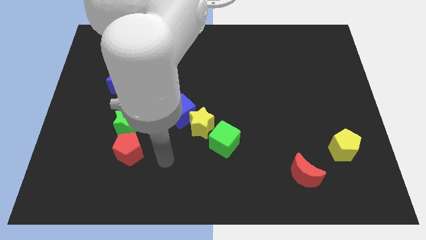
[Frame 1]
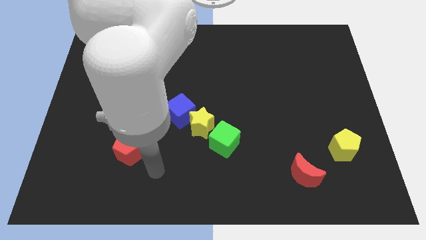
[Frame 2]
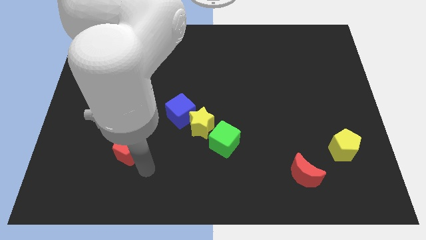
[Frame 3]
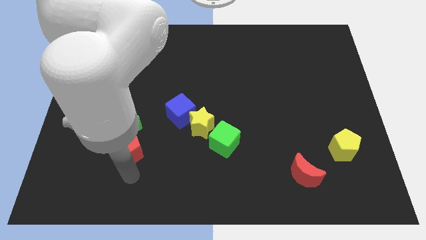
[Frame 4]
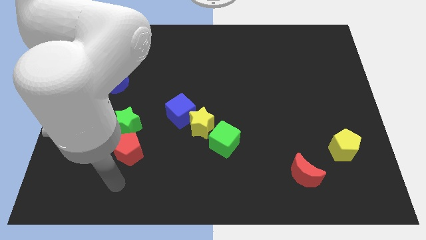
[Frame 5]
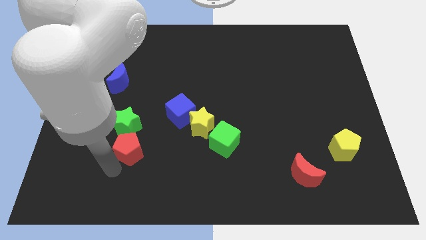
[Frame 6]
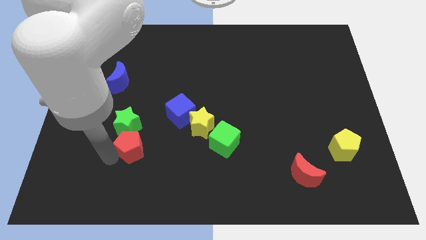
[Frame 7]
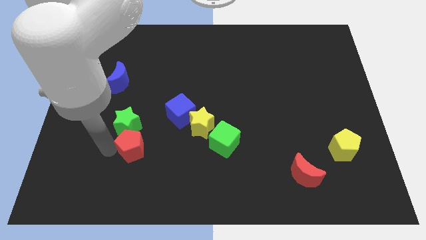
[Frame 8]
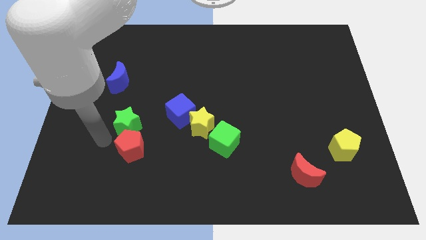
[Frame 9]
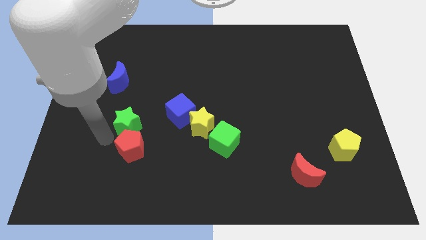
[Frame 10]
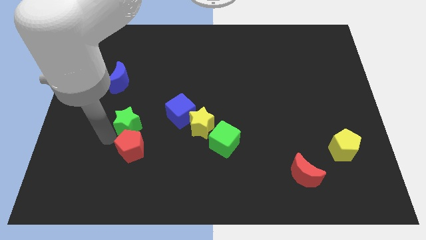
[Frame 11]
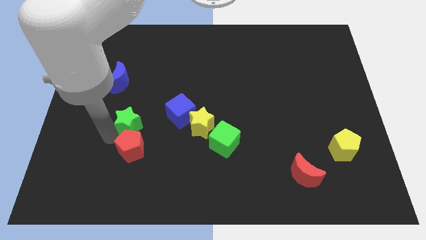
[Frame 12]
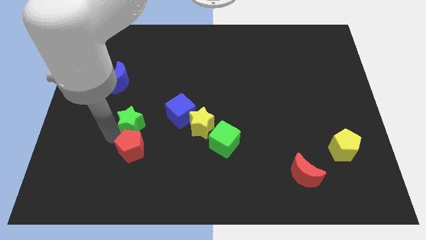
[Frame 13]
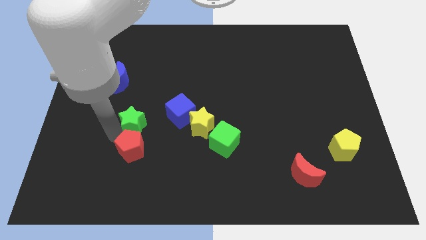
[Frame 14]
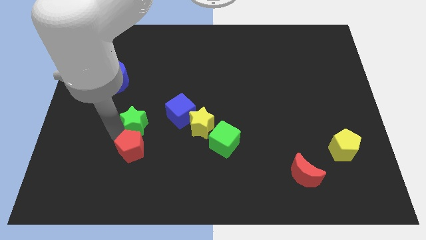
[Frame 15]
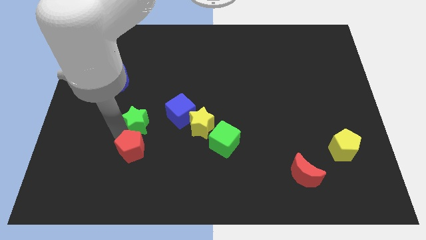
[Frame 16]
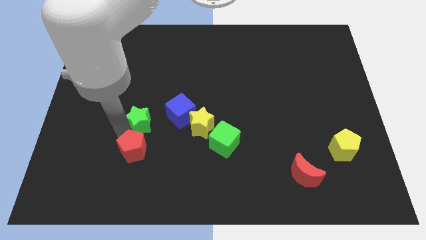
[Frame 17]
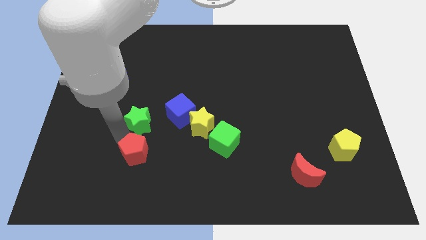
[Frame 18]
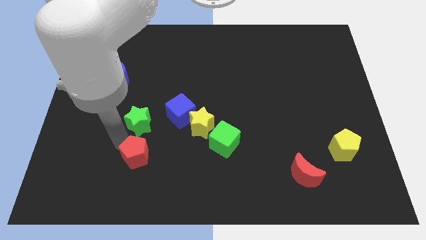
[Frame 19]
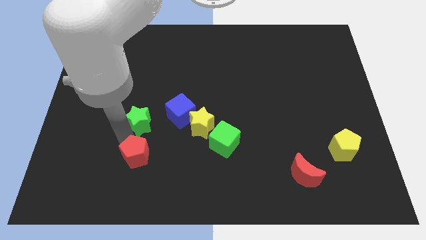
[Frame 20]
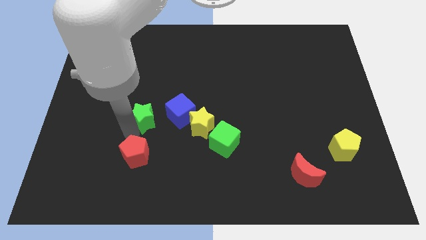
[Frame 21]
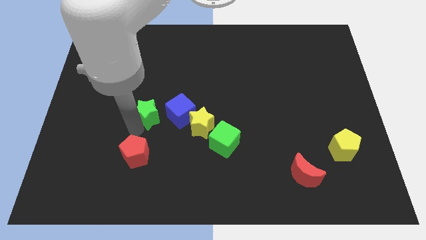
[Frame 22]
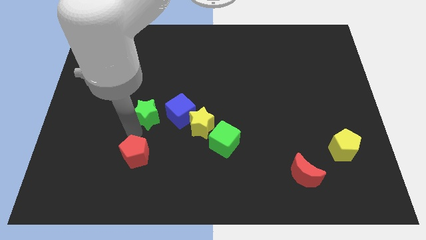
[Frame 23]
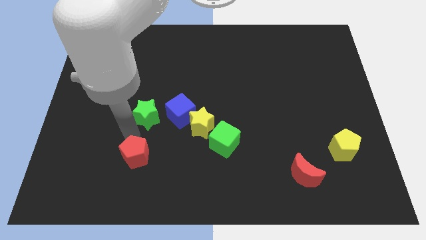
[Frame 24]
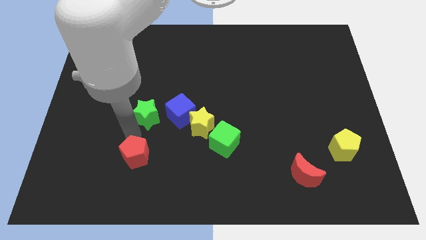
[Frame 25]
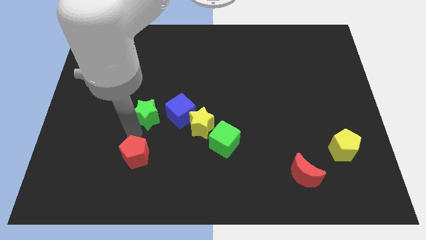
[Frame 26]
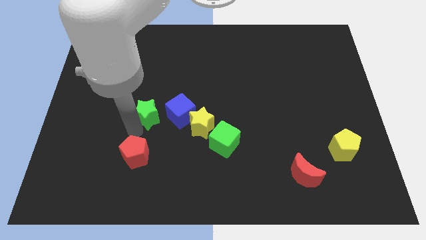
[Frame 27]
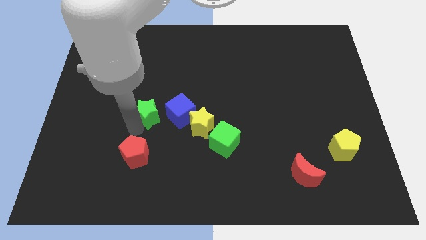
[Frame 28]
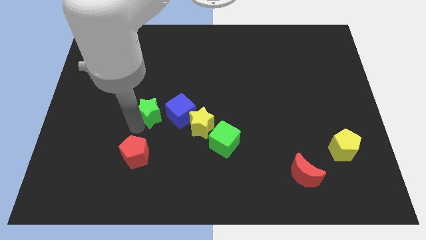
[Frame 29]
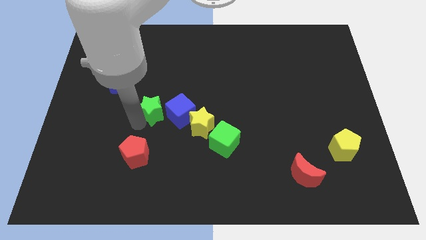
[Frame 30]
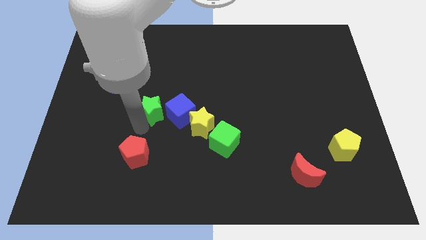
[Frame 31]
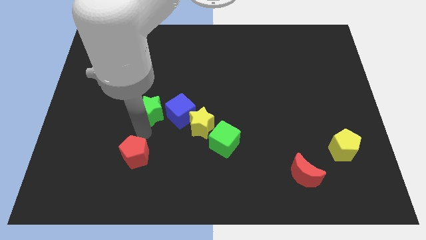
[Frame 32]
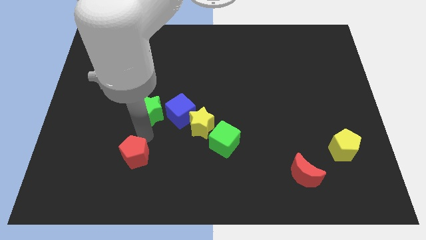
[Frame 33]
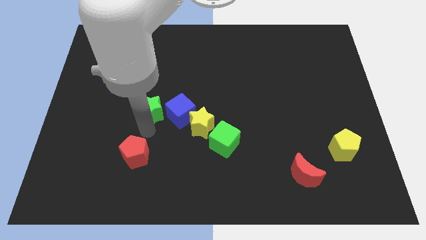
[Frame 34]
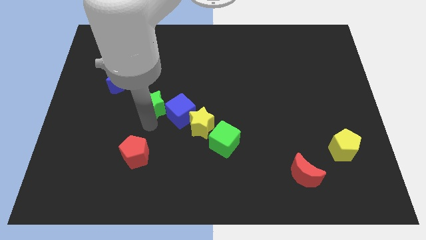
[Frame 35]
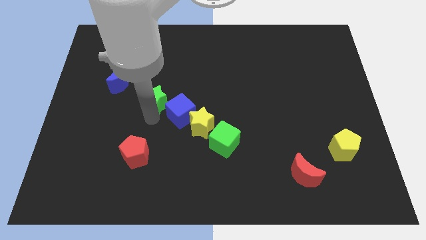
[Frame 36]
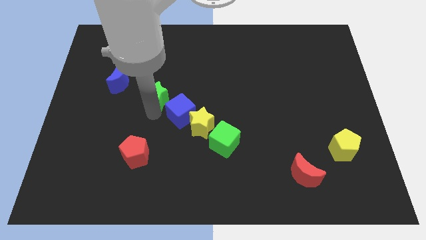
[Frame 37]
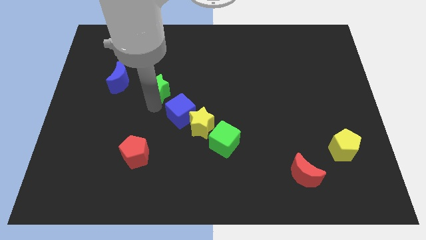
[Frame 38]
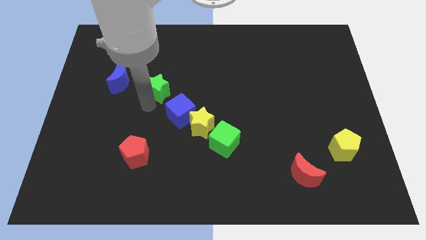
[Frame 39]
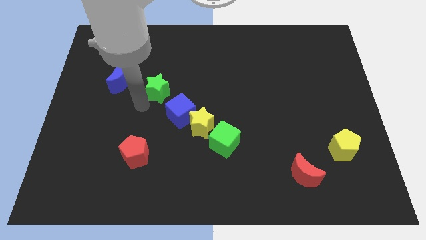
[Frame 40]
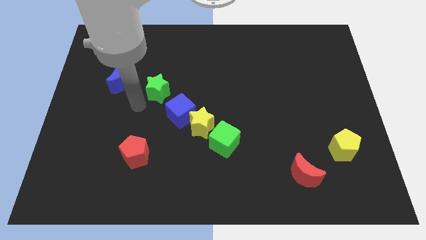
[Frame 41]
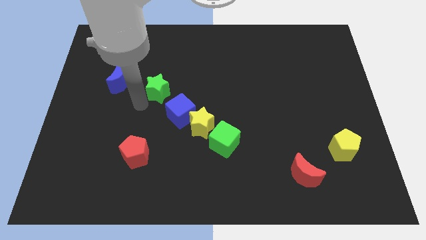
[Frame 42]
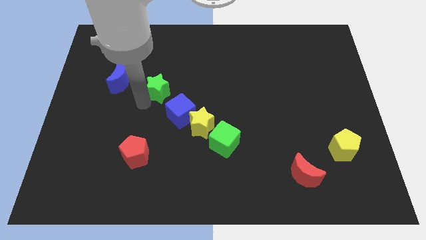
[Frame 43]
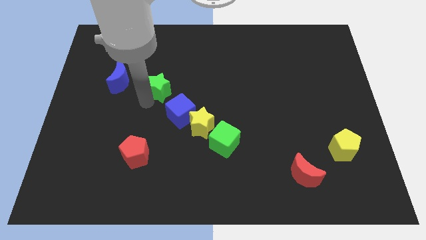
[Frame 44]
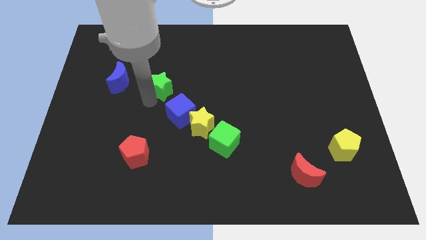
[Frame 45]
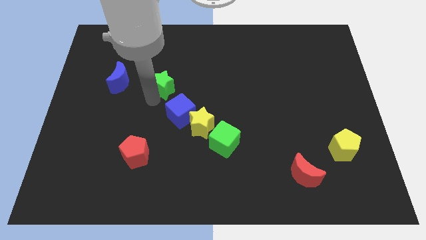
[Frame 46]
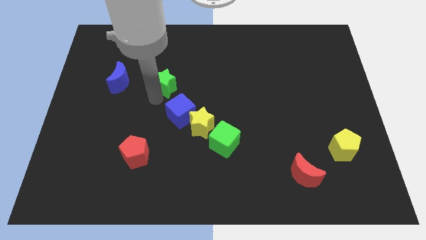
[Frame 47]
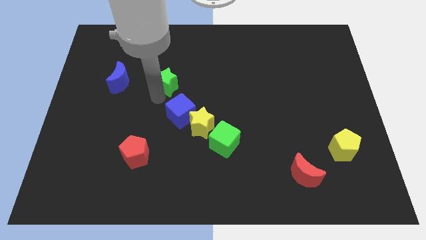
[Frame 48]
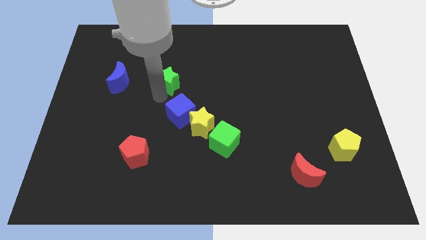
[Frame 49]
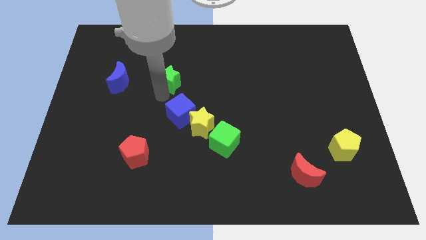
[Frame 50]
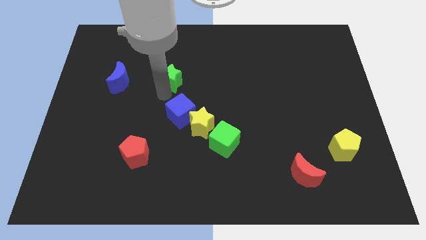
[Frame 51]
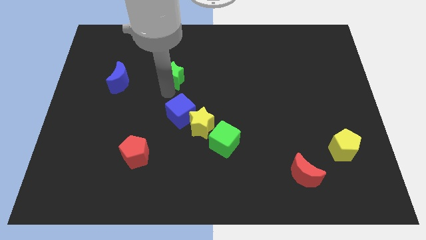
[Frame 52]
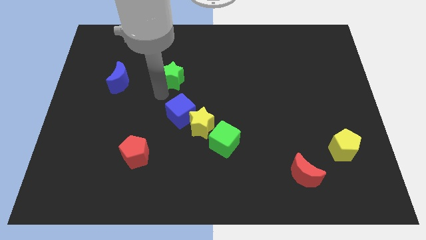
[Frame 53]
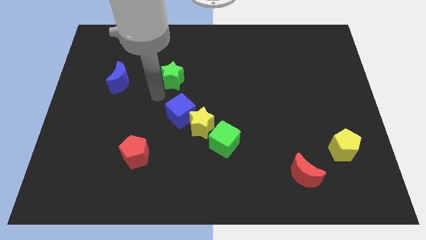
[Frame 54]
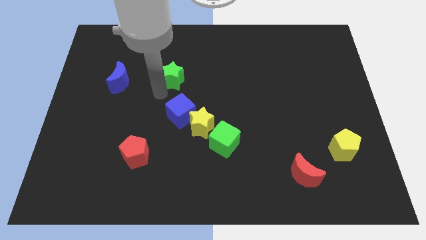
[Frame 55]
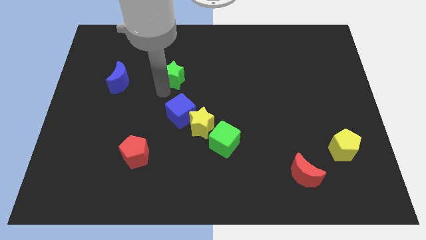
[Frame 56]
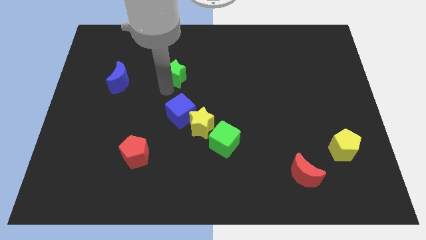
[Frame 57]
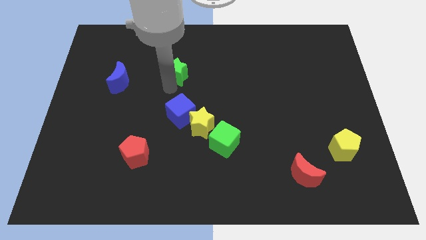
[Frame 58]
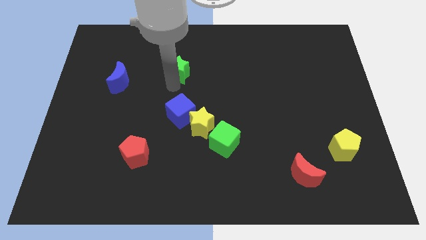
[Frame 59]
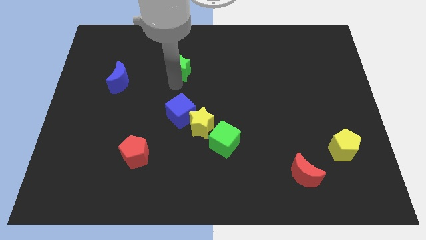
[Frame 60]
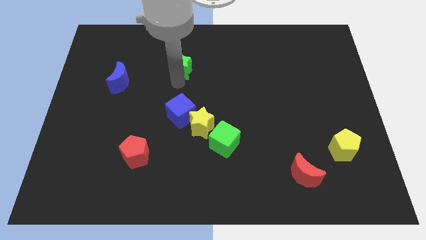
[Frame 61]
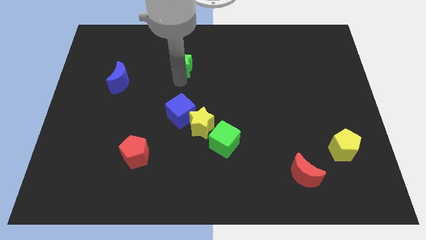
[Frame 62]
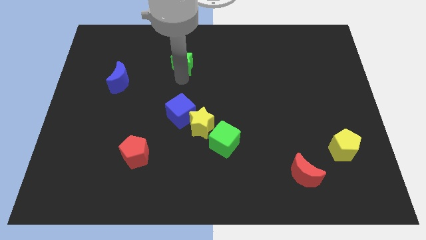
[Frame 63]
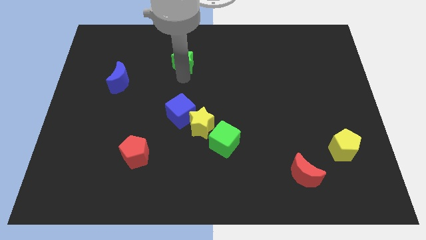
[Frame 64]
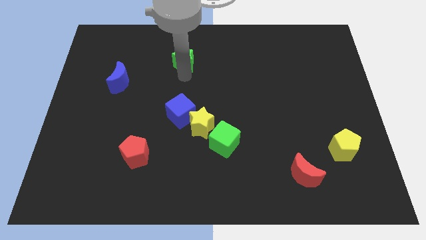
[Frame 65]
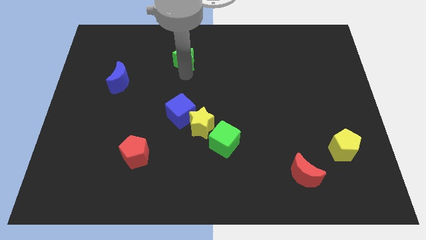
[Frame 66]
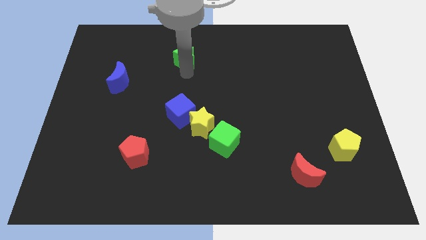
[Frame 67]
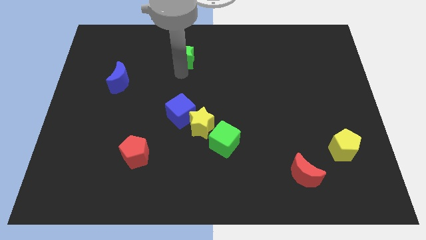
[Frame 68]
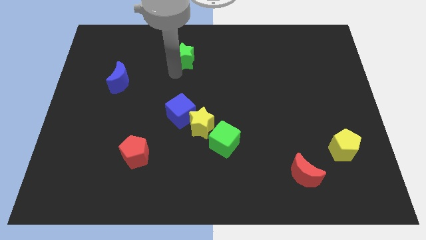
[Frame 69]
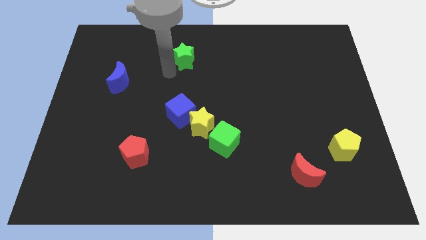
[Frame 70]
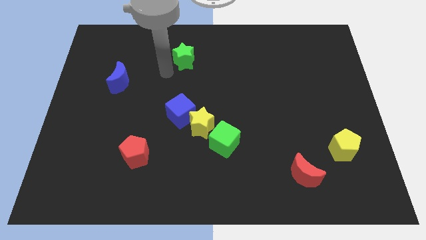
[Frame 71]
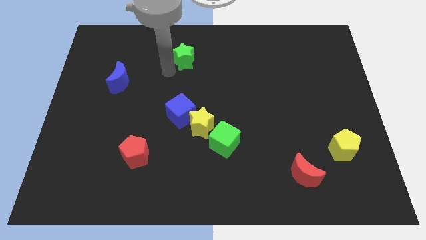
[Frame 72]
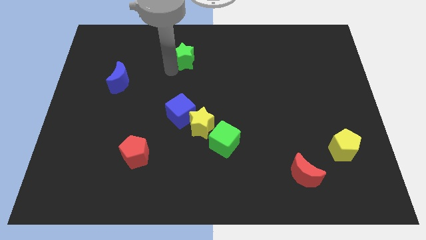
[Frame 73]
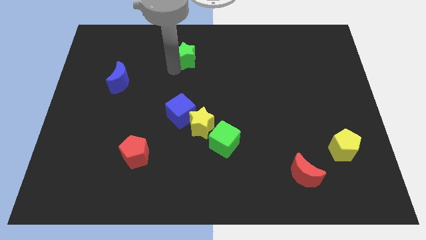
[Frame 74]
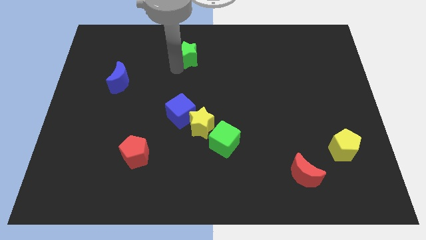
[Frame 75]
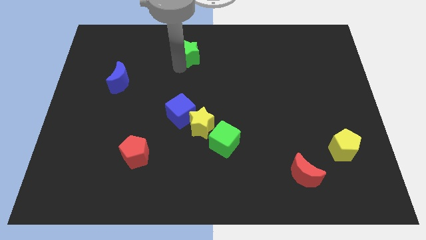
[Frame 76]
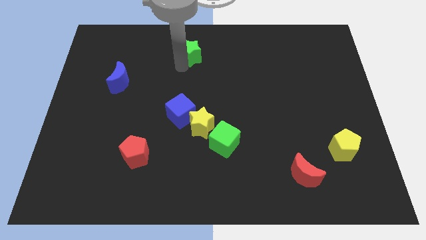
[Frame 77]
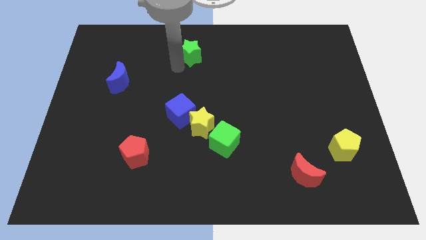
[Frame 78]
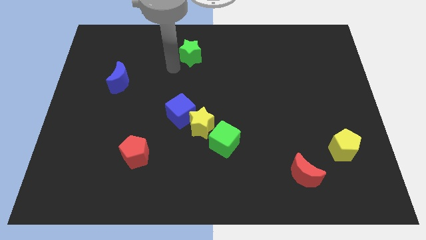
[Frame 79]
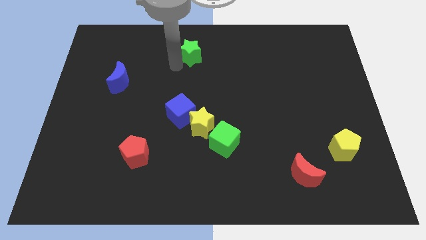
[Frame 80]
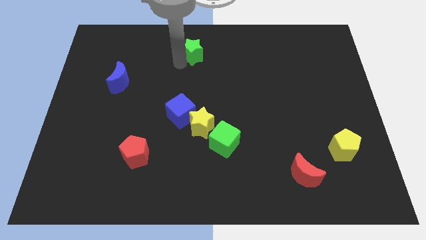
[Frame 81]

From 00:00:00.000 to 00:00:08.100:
push the green star to the top
